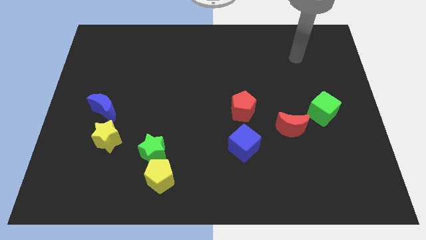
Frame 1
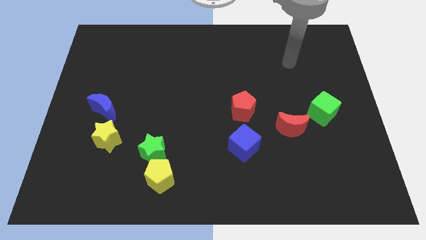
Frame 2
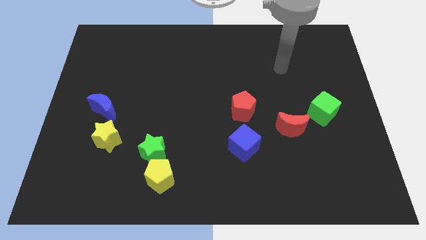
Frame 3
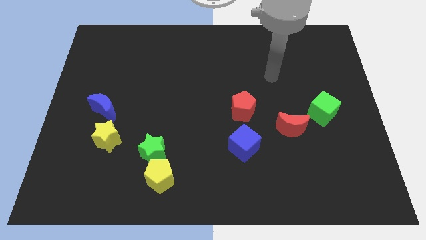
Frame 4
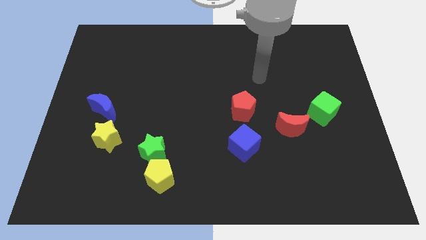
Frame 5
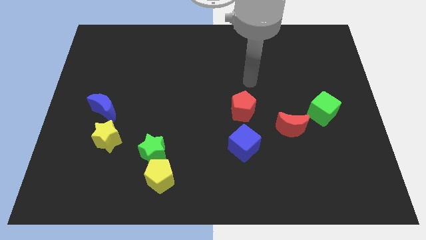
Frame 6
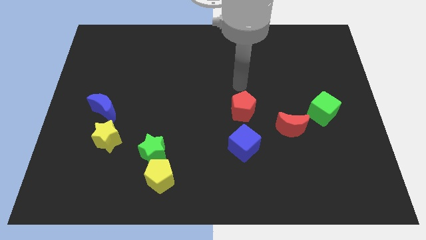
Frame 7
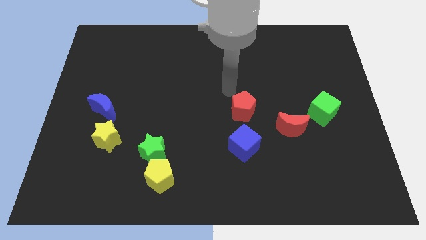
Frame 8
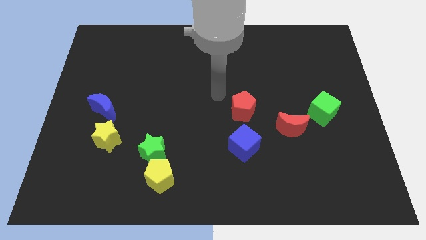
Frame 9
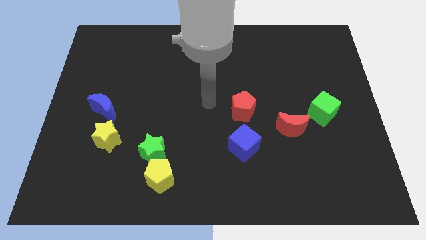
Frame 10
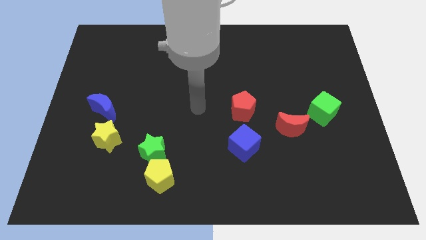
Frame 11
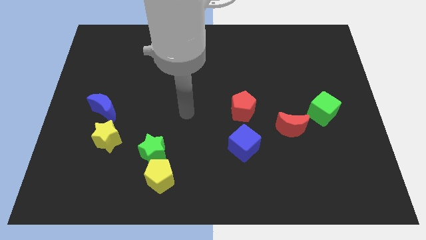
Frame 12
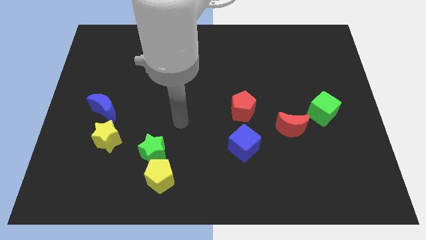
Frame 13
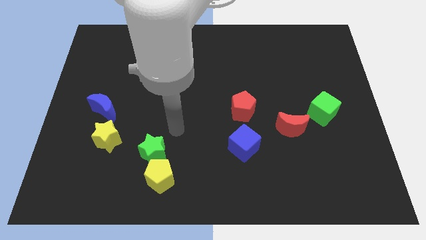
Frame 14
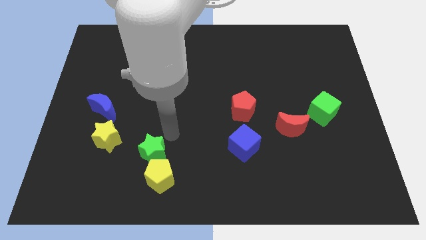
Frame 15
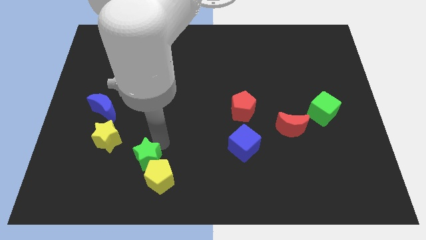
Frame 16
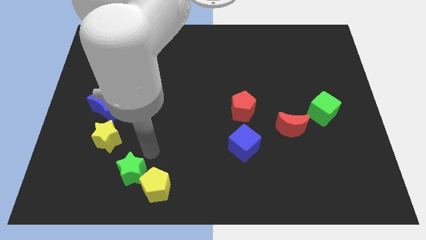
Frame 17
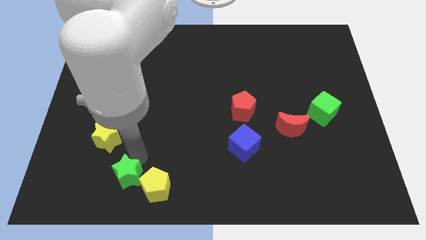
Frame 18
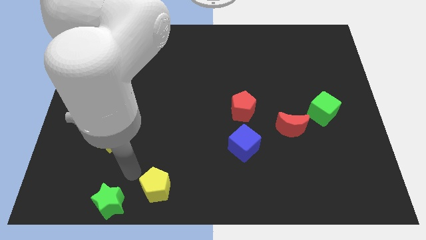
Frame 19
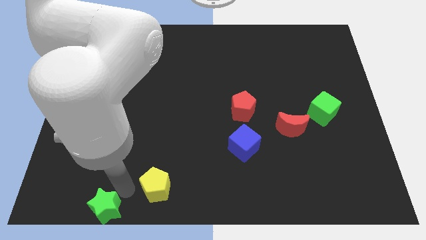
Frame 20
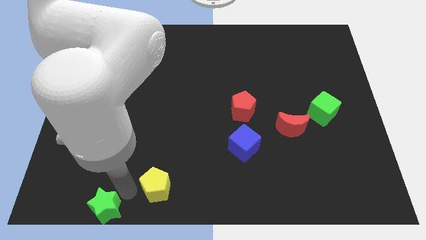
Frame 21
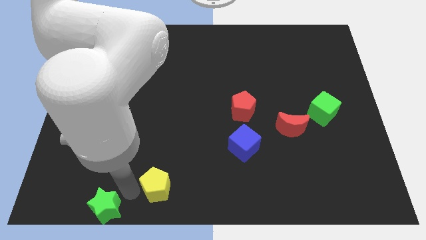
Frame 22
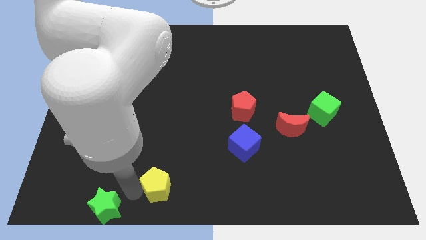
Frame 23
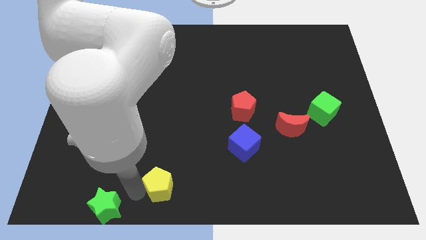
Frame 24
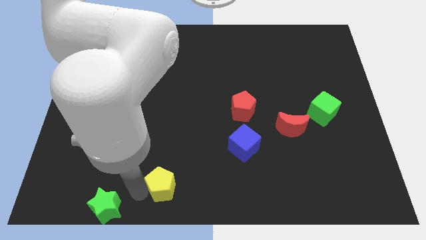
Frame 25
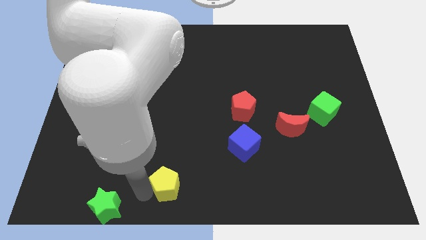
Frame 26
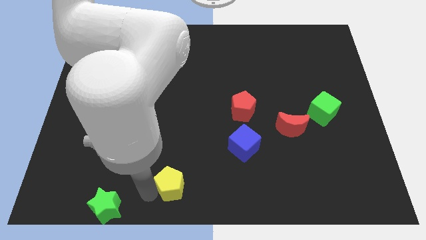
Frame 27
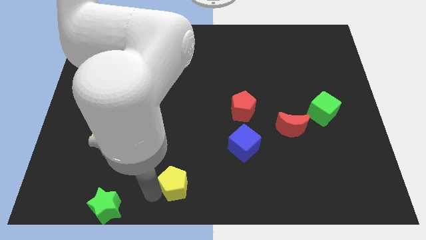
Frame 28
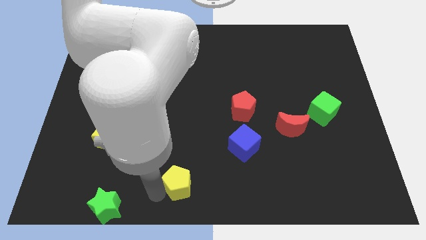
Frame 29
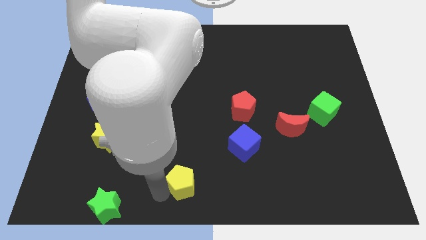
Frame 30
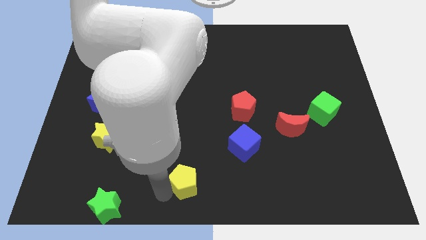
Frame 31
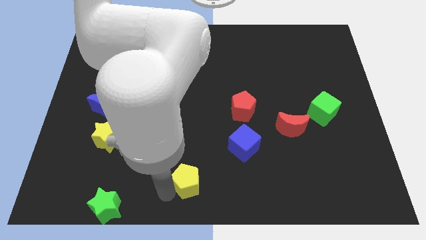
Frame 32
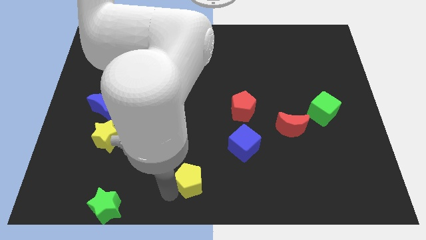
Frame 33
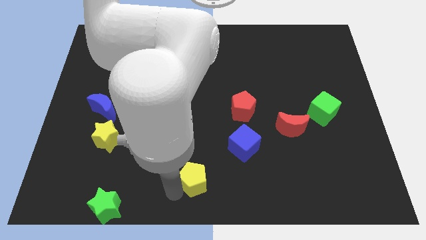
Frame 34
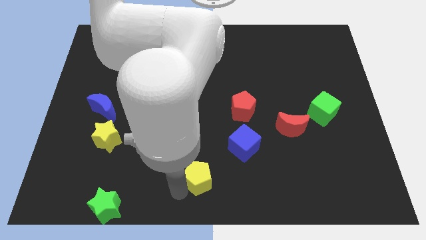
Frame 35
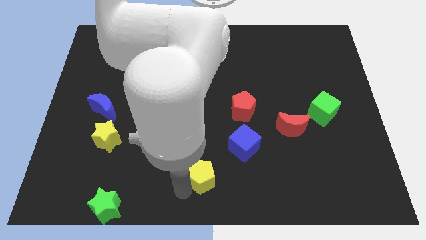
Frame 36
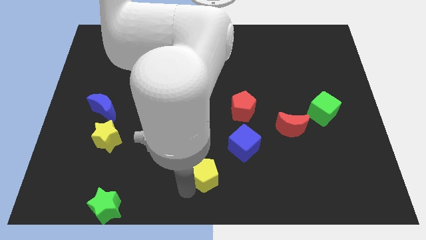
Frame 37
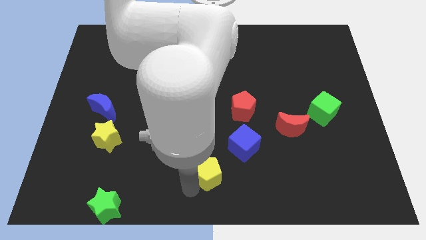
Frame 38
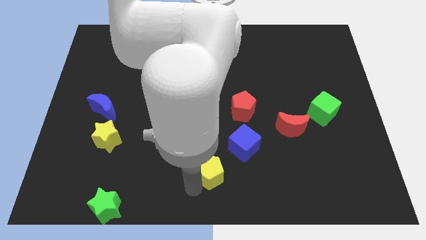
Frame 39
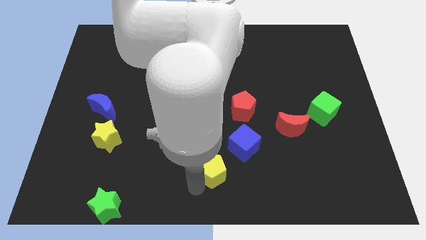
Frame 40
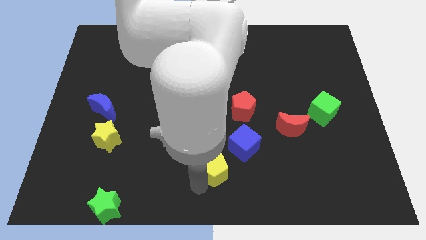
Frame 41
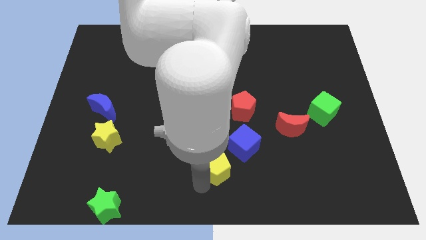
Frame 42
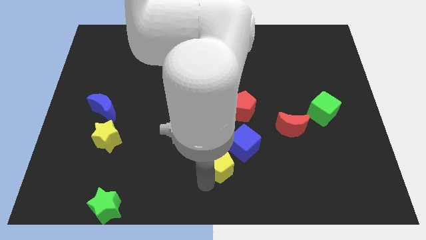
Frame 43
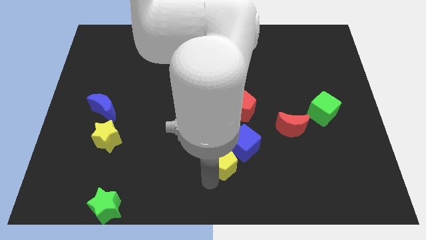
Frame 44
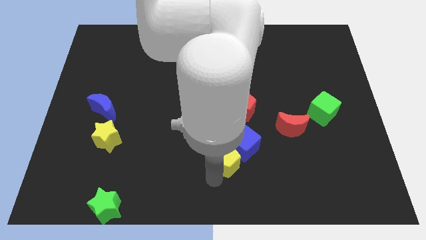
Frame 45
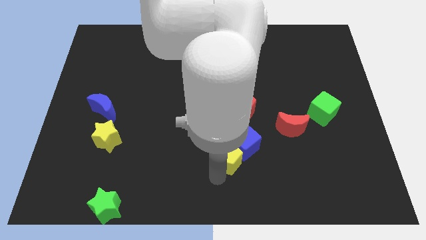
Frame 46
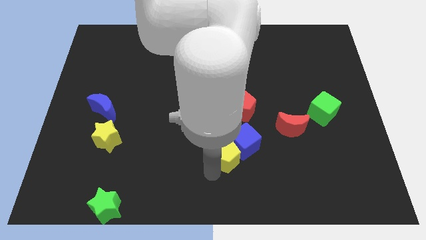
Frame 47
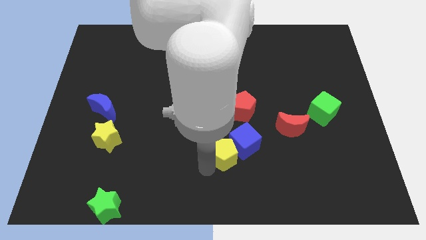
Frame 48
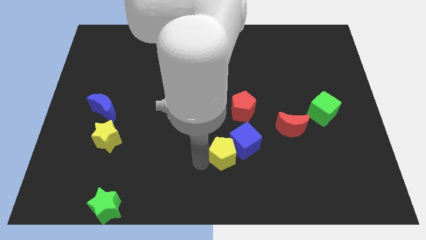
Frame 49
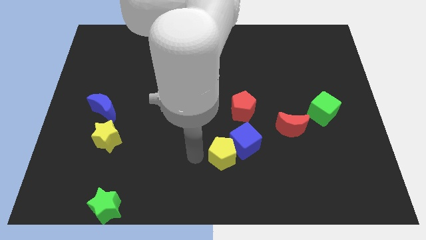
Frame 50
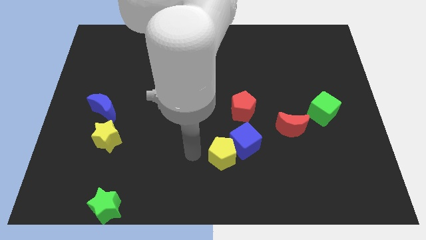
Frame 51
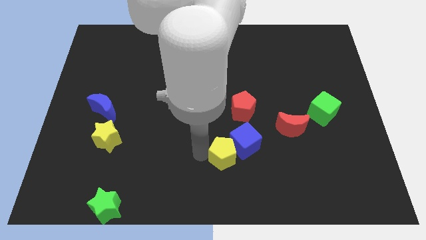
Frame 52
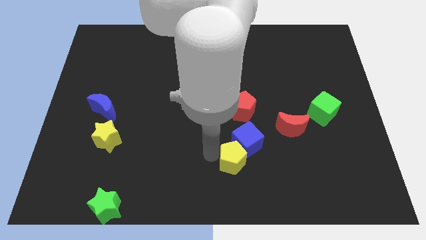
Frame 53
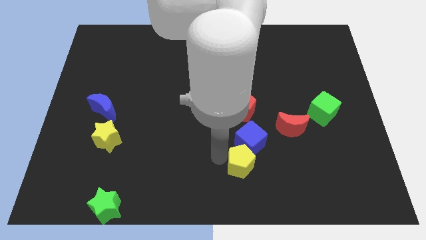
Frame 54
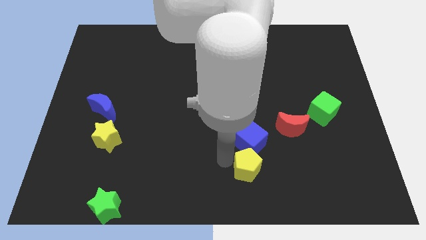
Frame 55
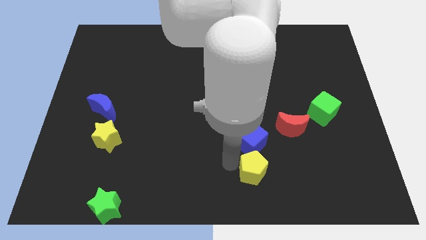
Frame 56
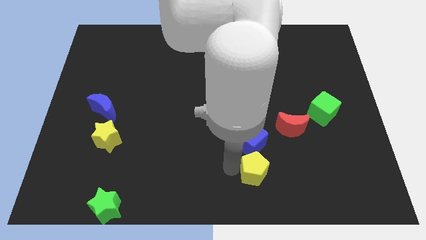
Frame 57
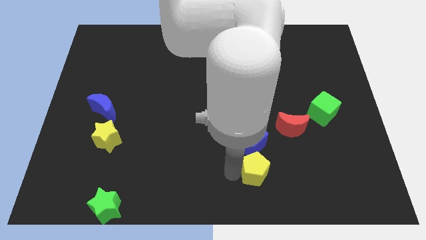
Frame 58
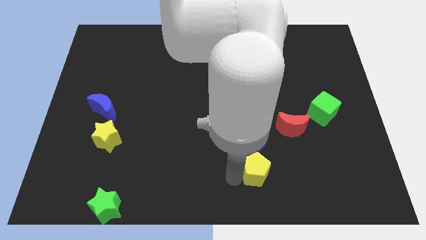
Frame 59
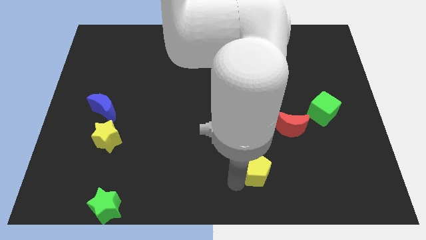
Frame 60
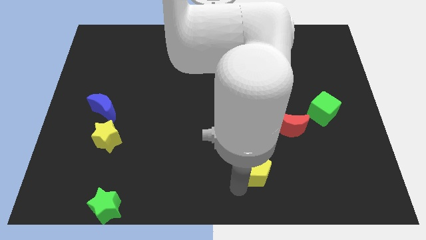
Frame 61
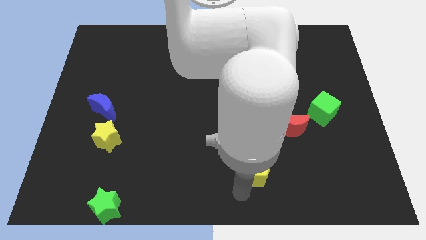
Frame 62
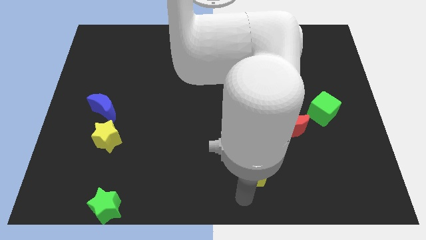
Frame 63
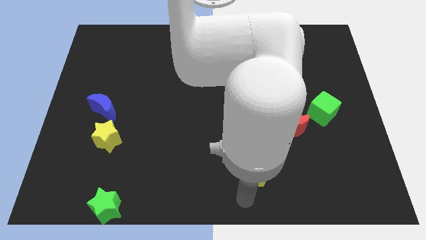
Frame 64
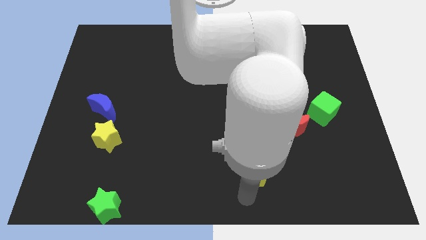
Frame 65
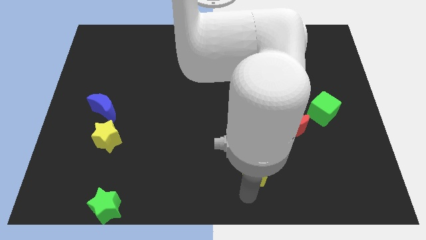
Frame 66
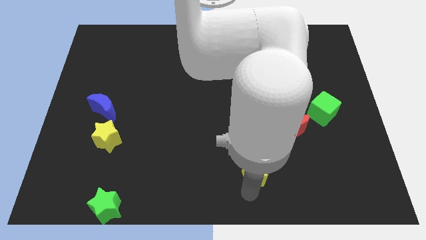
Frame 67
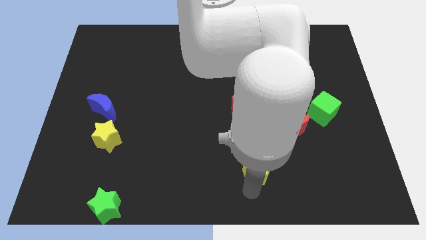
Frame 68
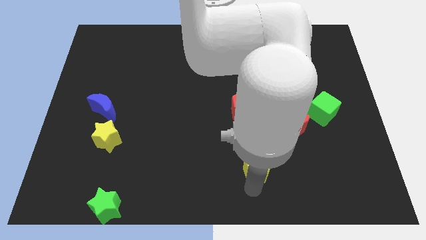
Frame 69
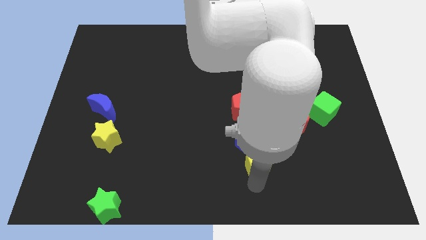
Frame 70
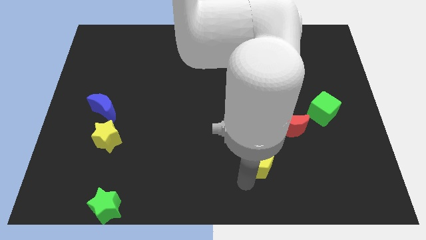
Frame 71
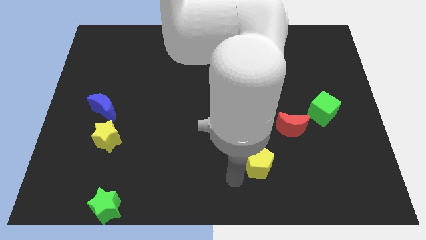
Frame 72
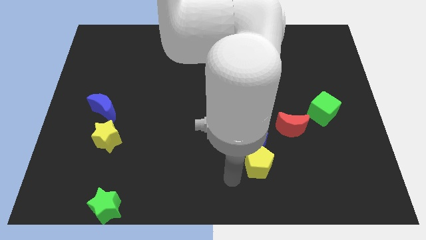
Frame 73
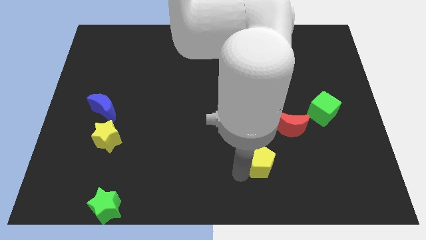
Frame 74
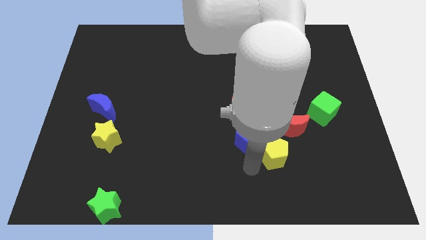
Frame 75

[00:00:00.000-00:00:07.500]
put the yellow pentagon right of the blue cube

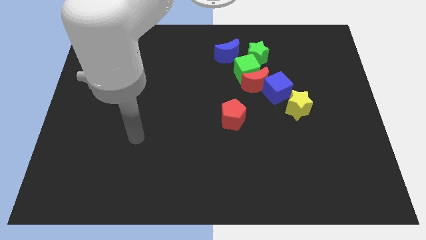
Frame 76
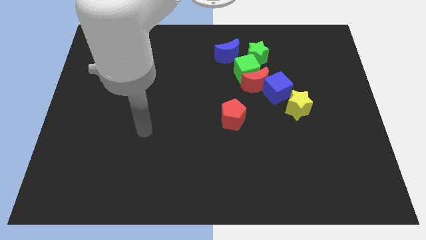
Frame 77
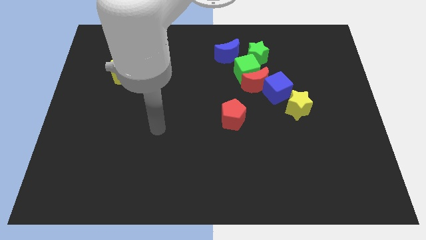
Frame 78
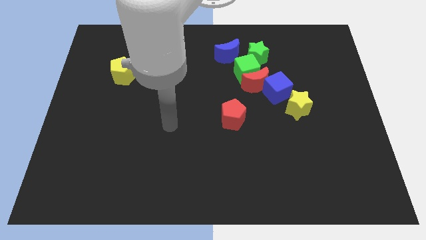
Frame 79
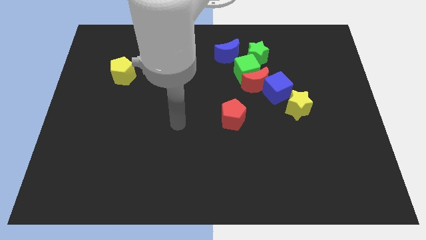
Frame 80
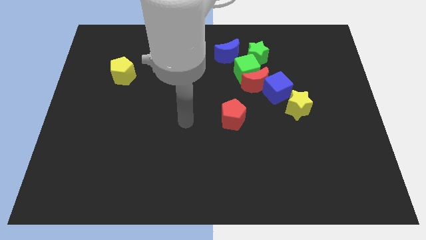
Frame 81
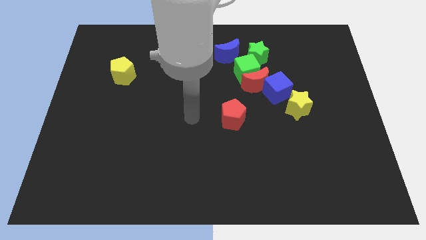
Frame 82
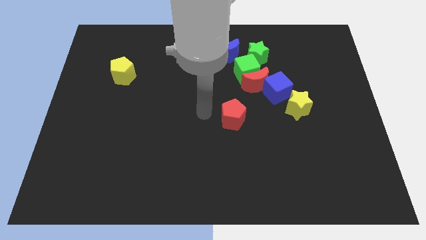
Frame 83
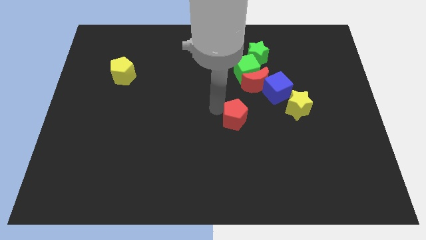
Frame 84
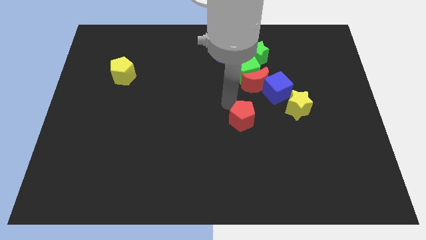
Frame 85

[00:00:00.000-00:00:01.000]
push the red moon above the red pentagon
